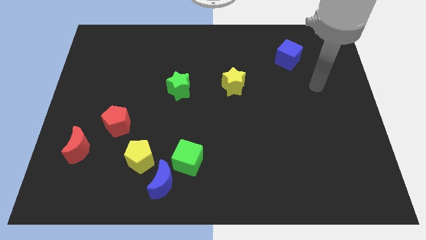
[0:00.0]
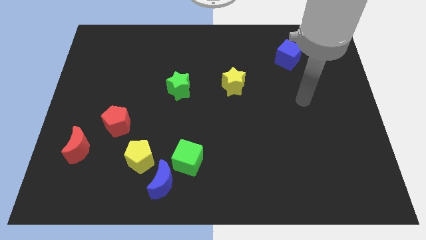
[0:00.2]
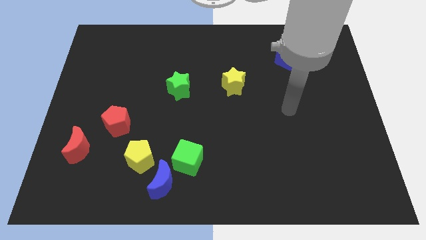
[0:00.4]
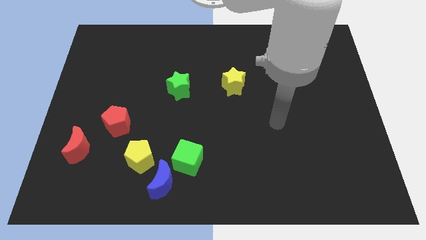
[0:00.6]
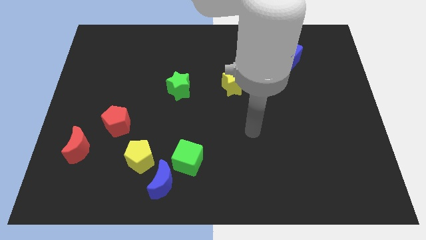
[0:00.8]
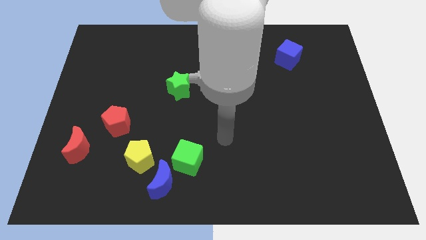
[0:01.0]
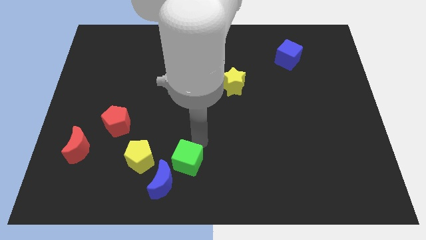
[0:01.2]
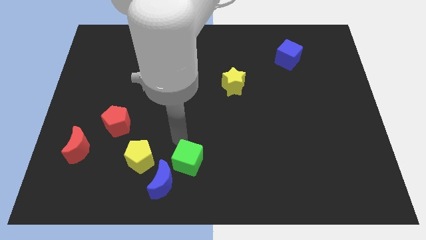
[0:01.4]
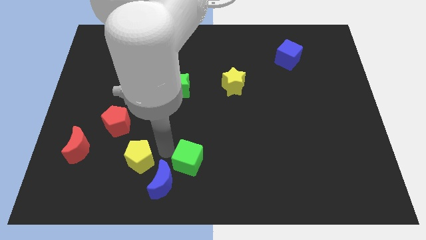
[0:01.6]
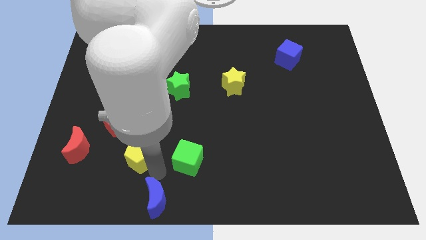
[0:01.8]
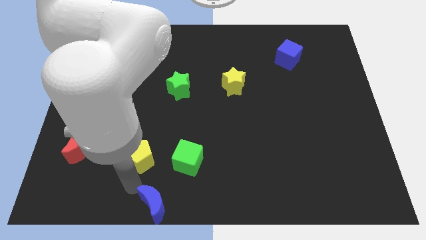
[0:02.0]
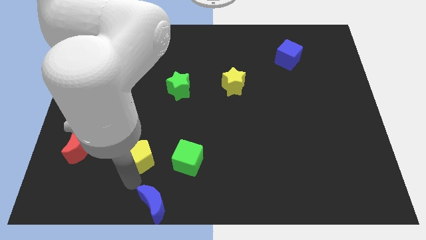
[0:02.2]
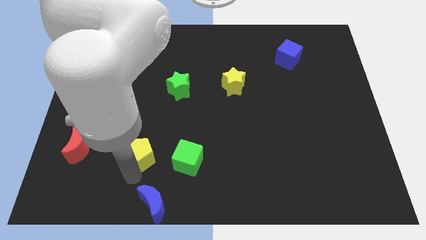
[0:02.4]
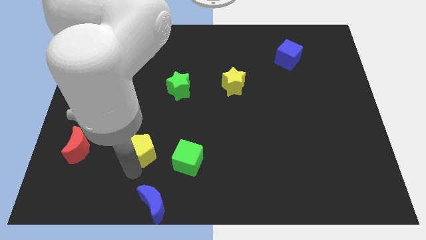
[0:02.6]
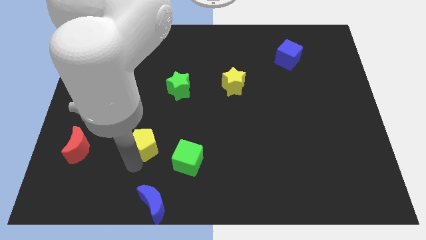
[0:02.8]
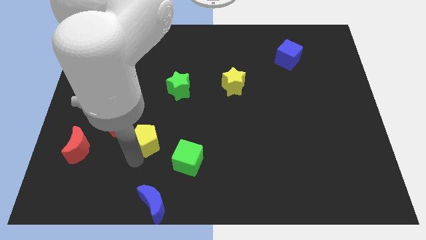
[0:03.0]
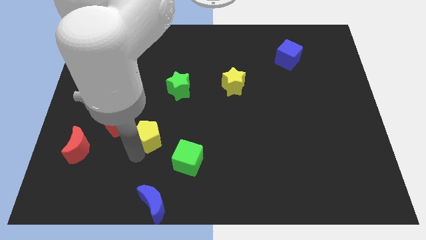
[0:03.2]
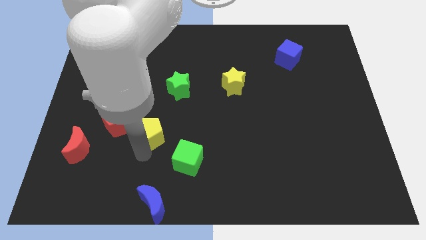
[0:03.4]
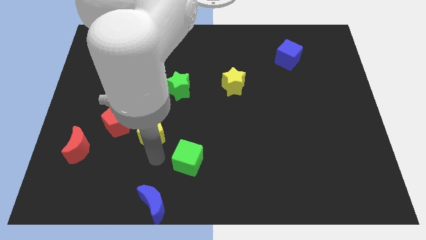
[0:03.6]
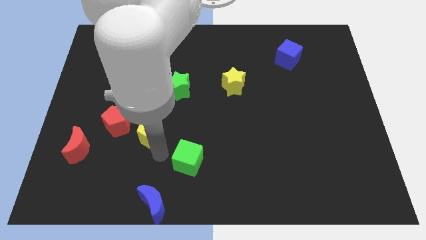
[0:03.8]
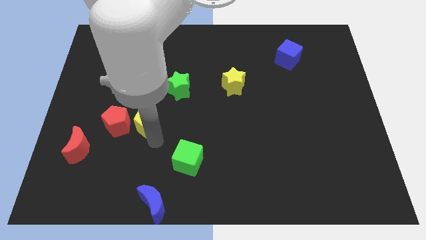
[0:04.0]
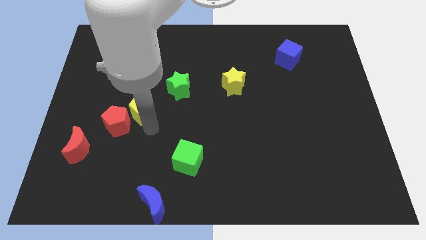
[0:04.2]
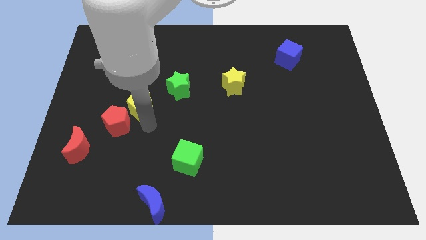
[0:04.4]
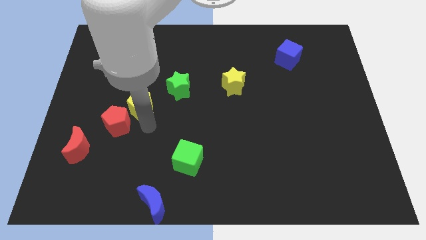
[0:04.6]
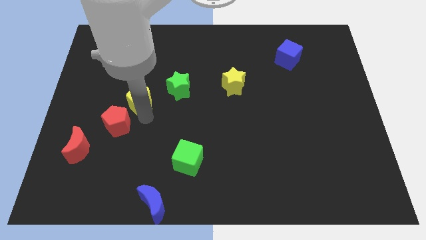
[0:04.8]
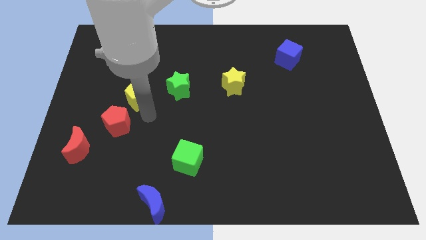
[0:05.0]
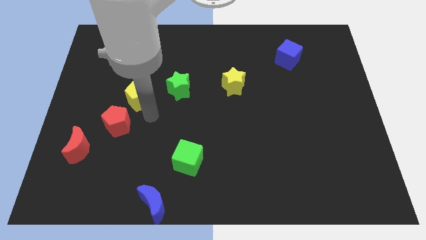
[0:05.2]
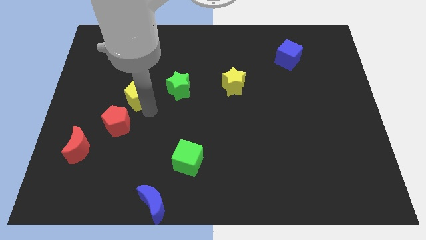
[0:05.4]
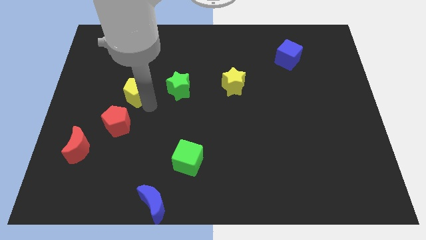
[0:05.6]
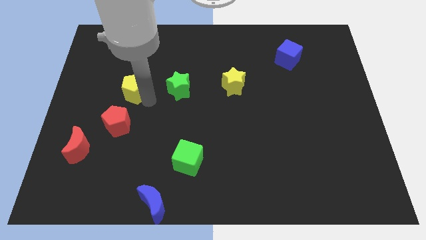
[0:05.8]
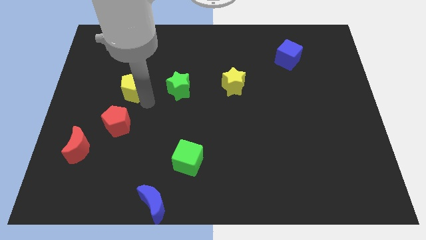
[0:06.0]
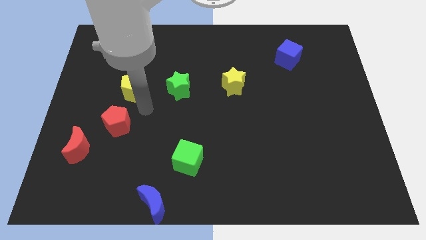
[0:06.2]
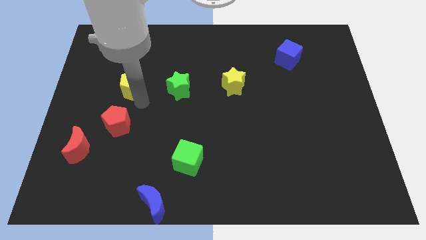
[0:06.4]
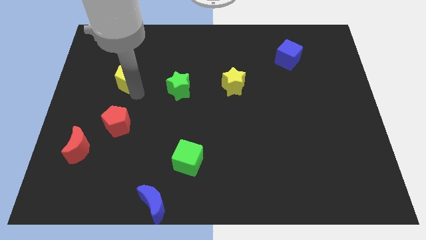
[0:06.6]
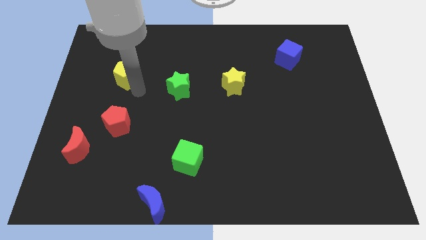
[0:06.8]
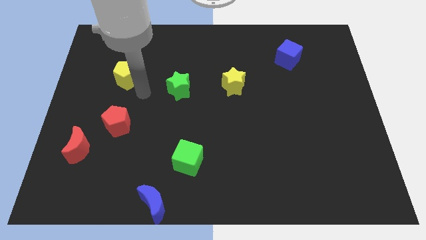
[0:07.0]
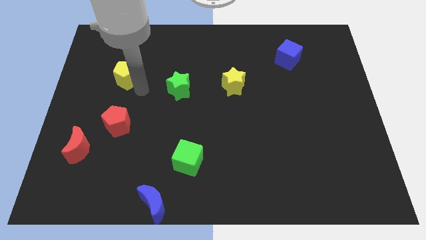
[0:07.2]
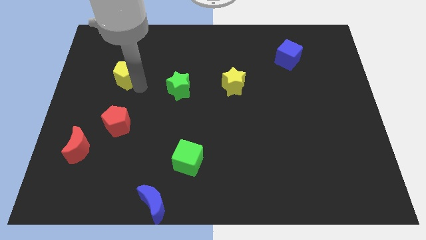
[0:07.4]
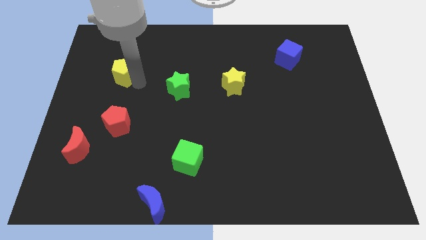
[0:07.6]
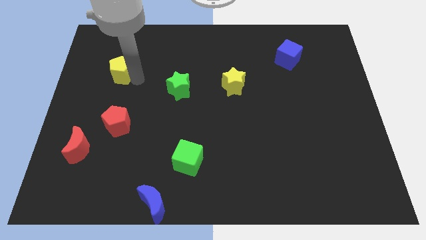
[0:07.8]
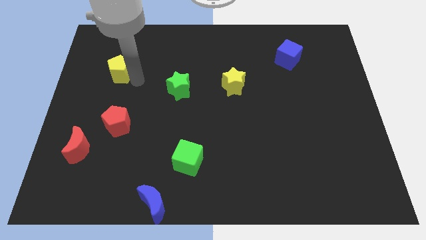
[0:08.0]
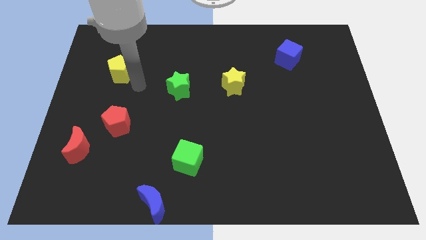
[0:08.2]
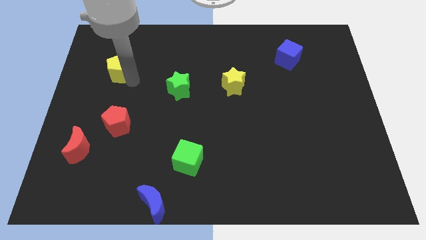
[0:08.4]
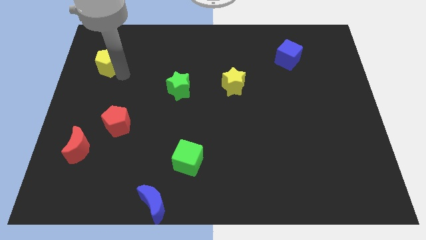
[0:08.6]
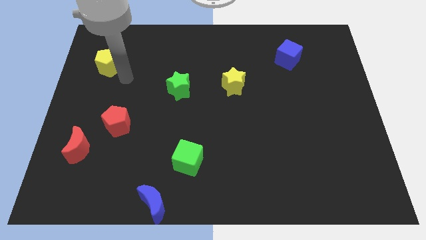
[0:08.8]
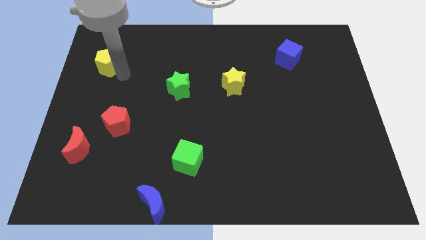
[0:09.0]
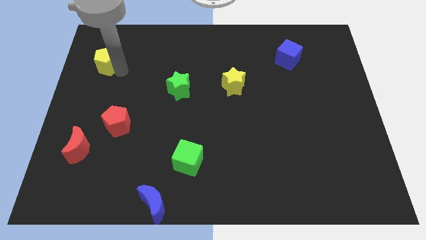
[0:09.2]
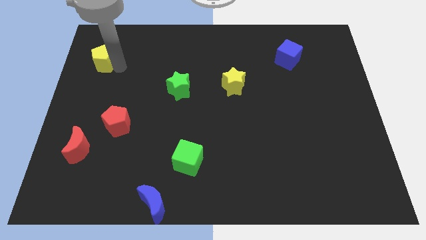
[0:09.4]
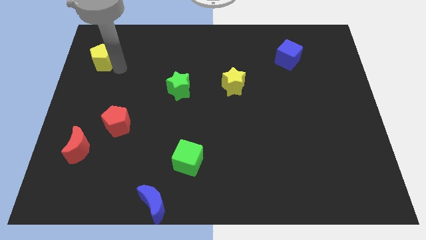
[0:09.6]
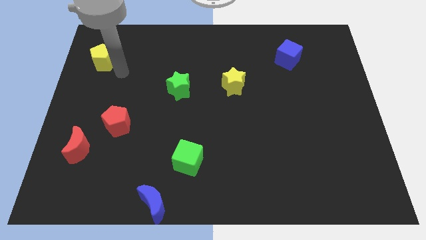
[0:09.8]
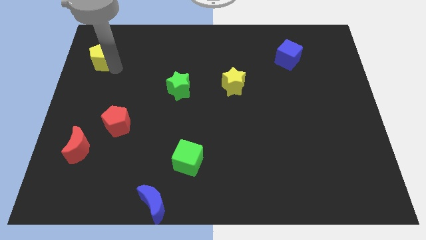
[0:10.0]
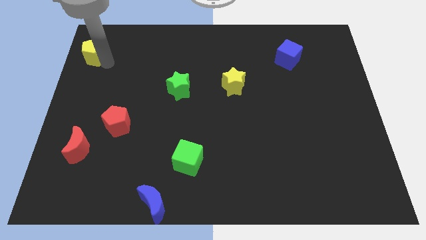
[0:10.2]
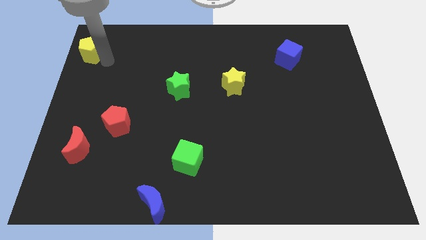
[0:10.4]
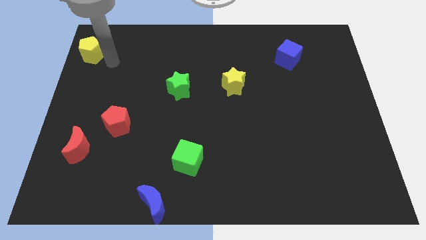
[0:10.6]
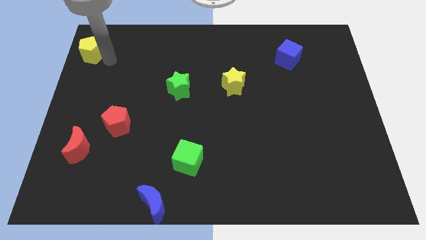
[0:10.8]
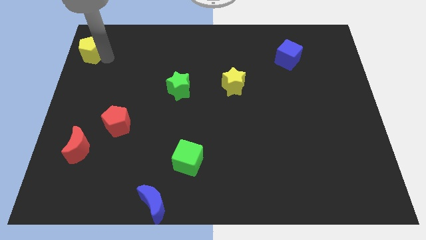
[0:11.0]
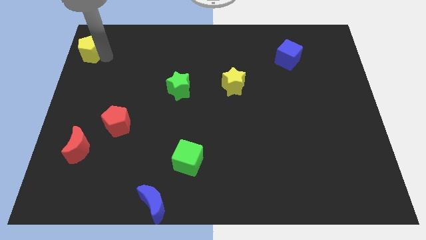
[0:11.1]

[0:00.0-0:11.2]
move the yellow pentagon to the upper left corner

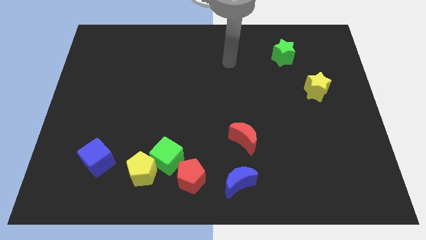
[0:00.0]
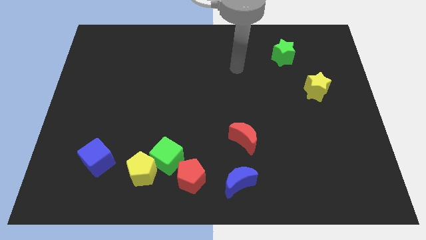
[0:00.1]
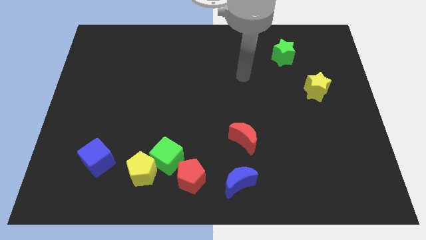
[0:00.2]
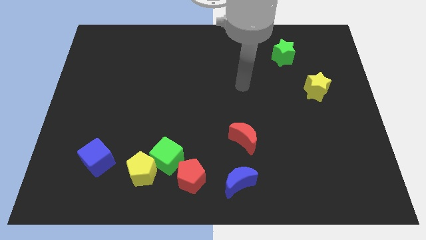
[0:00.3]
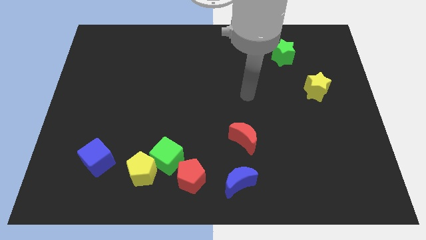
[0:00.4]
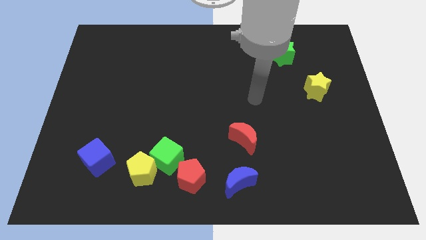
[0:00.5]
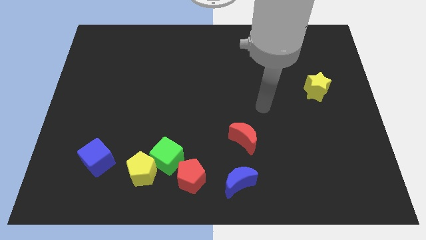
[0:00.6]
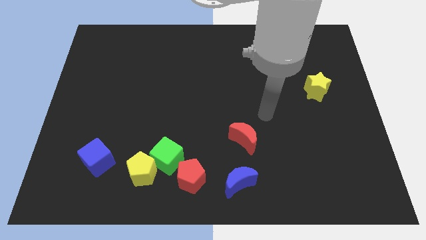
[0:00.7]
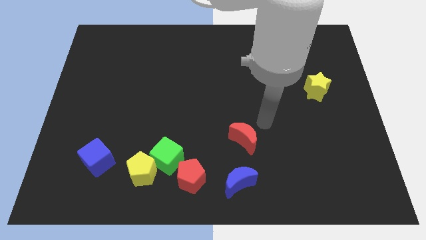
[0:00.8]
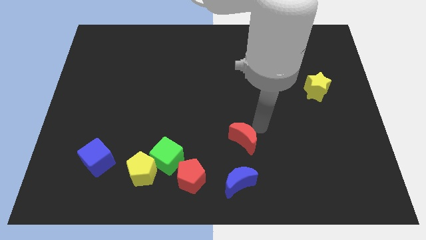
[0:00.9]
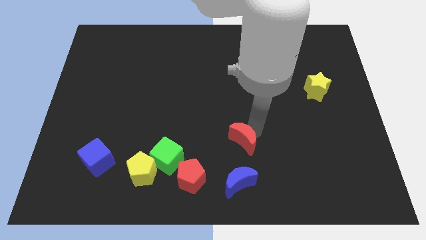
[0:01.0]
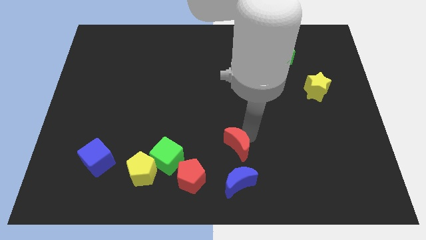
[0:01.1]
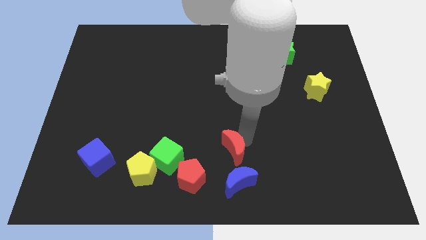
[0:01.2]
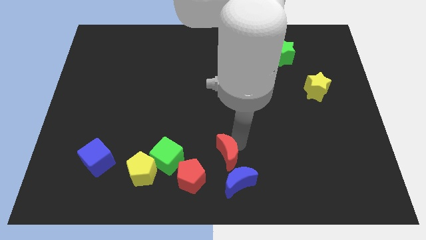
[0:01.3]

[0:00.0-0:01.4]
slide the red moon to the bottom
